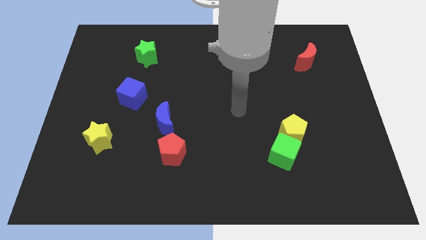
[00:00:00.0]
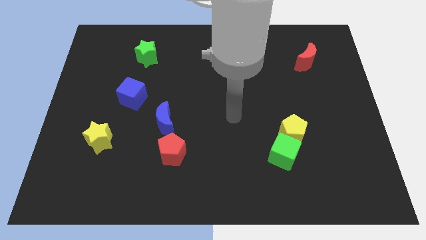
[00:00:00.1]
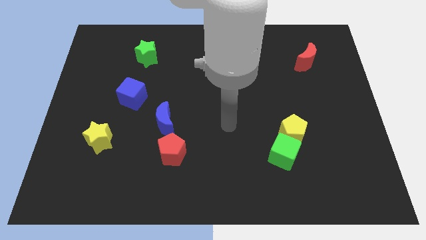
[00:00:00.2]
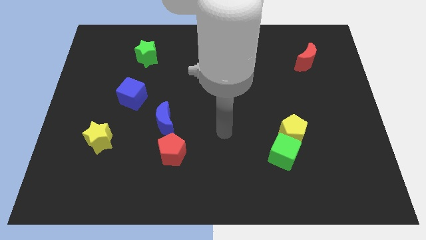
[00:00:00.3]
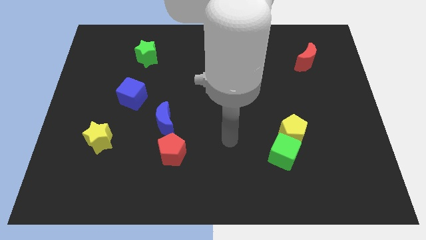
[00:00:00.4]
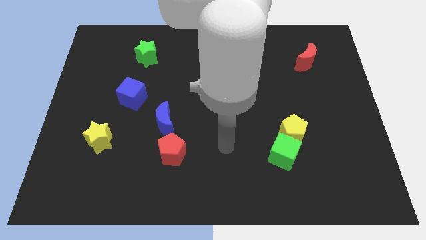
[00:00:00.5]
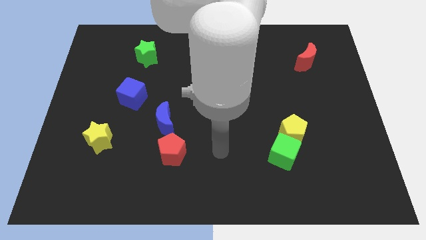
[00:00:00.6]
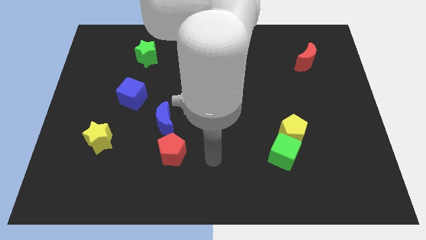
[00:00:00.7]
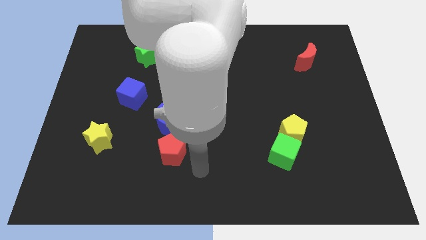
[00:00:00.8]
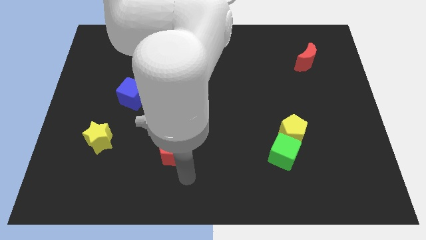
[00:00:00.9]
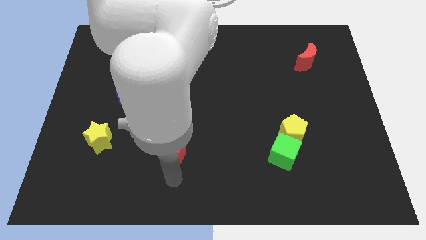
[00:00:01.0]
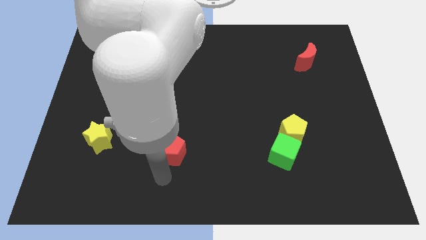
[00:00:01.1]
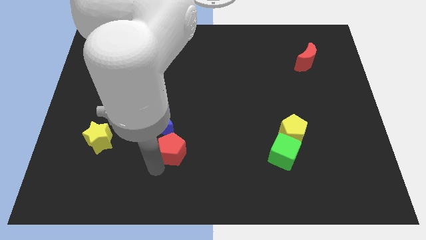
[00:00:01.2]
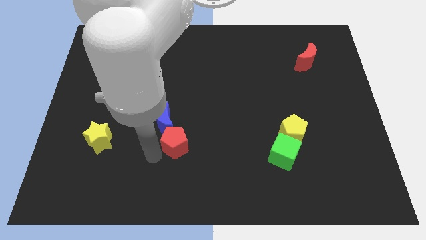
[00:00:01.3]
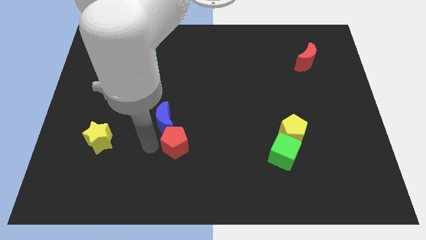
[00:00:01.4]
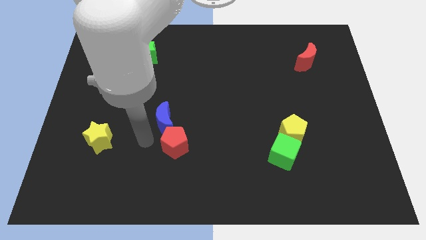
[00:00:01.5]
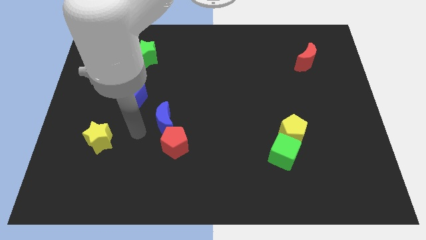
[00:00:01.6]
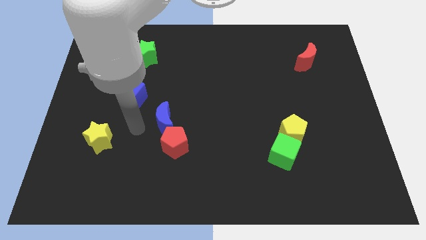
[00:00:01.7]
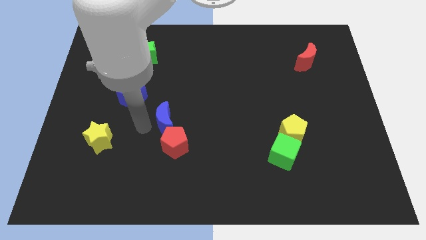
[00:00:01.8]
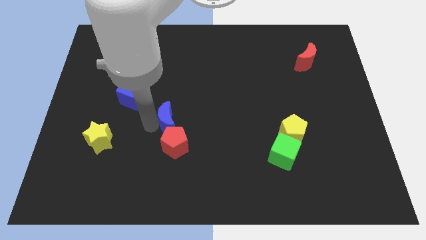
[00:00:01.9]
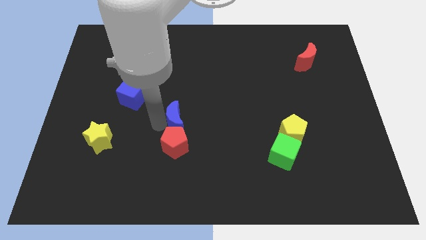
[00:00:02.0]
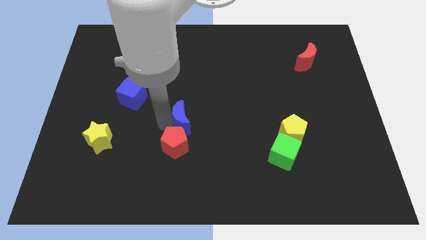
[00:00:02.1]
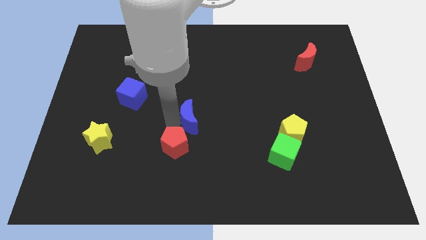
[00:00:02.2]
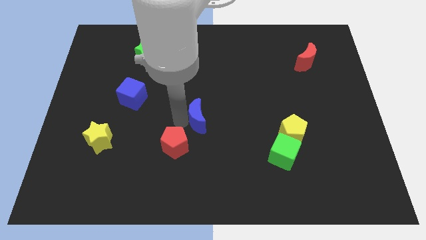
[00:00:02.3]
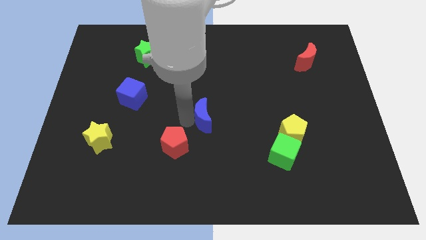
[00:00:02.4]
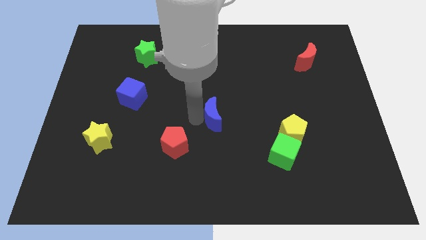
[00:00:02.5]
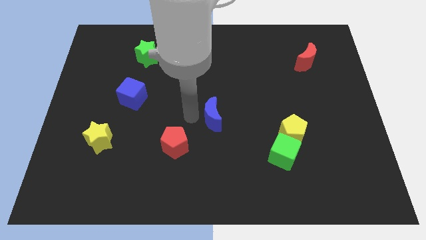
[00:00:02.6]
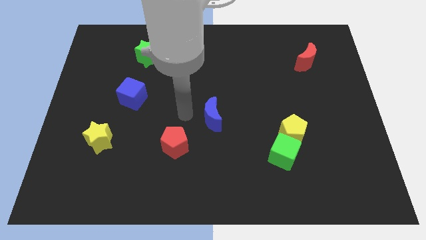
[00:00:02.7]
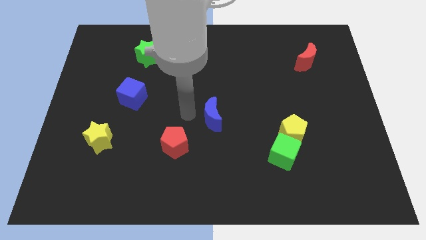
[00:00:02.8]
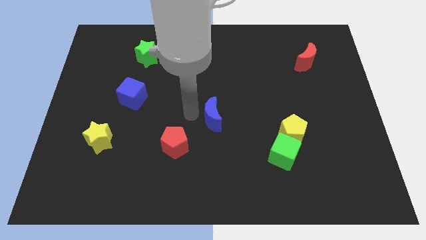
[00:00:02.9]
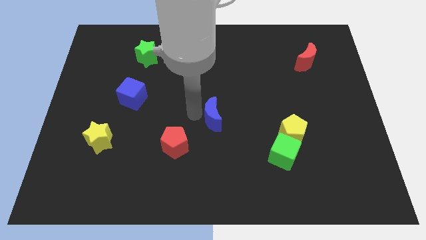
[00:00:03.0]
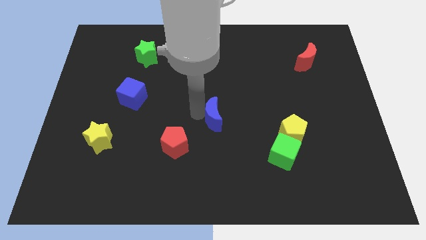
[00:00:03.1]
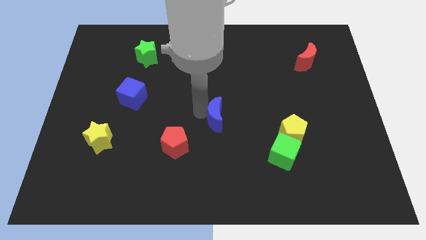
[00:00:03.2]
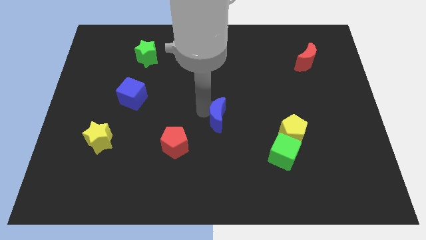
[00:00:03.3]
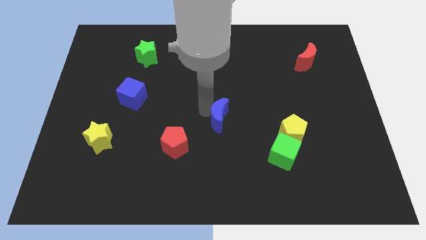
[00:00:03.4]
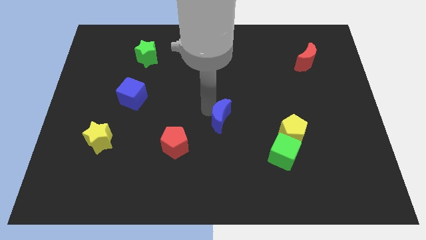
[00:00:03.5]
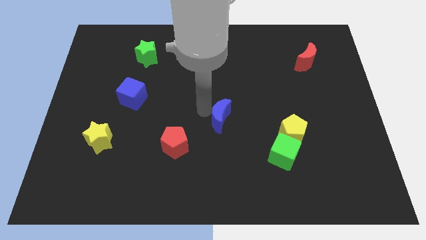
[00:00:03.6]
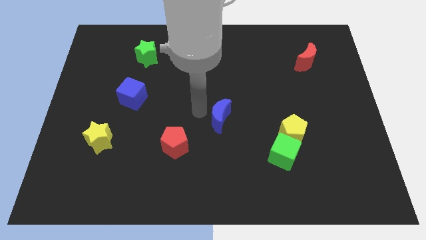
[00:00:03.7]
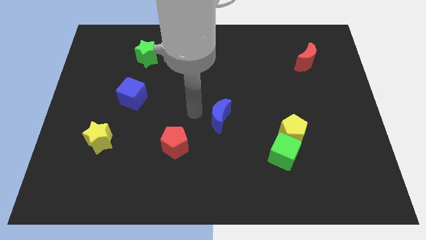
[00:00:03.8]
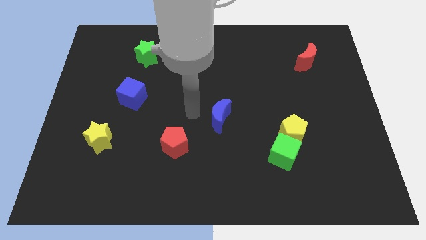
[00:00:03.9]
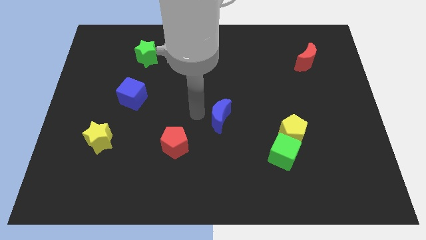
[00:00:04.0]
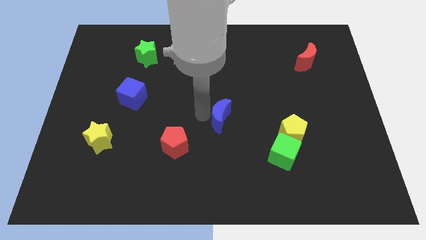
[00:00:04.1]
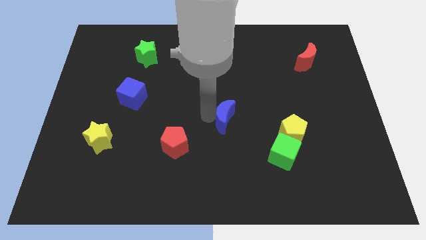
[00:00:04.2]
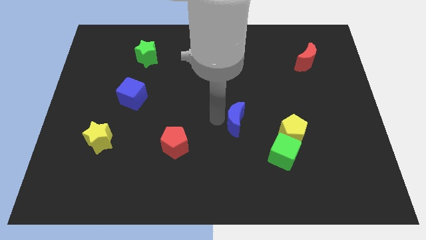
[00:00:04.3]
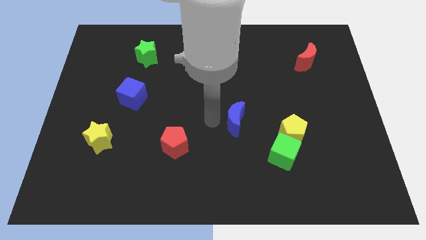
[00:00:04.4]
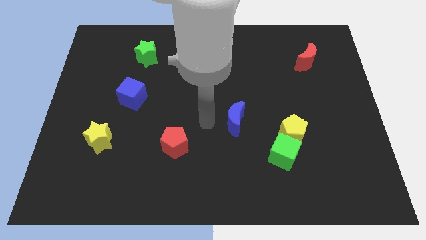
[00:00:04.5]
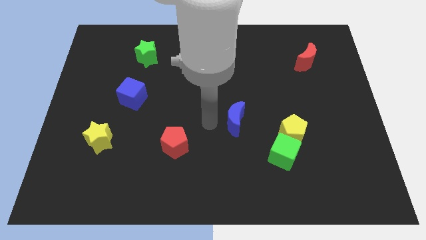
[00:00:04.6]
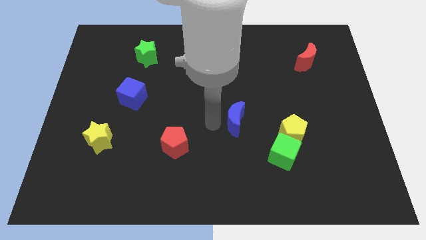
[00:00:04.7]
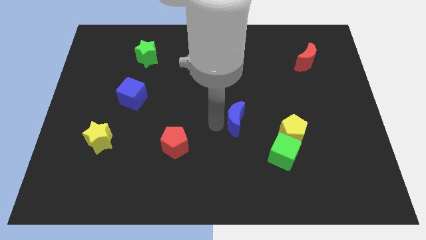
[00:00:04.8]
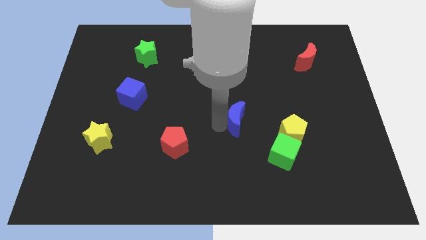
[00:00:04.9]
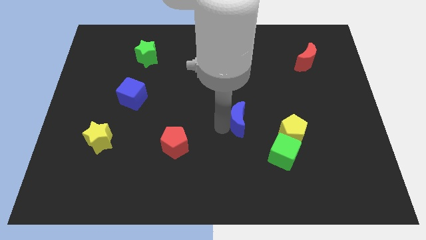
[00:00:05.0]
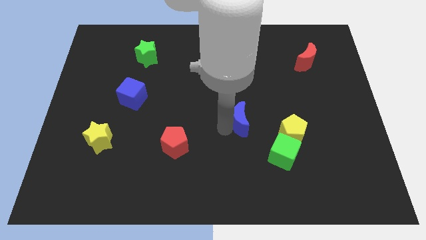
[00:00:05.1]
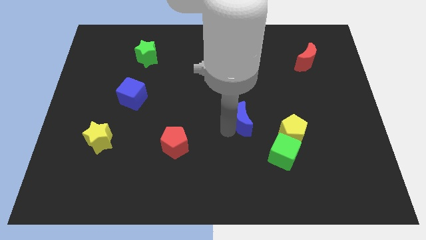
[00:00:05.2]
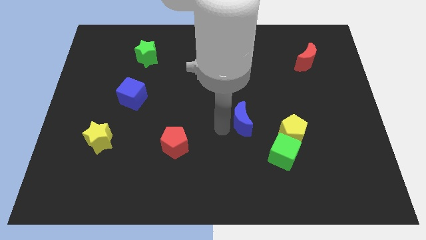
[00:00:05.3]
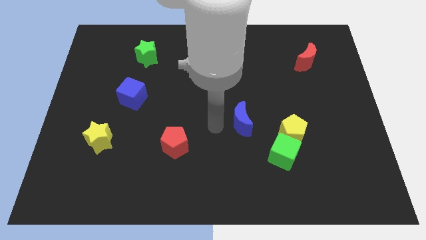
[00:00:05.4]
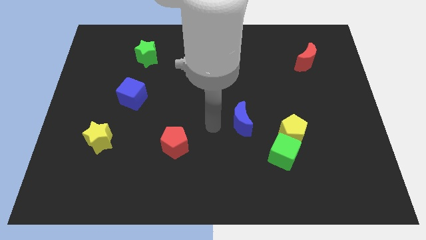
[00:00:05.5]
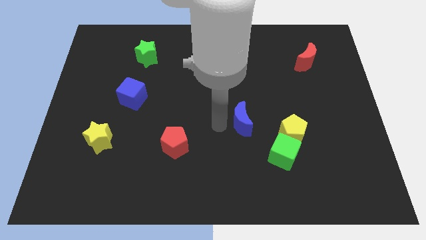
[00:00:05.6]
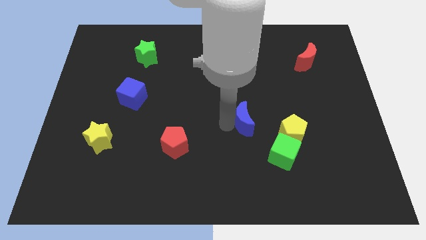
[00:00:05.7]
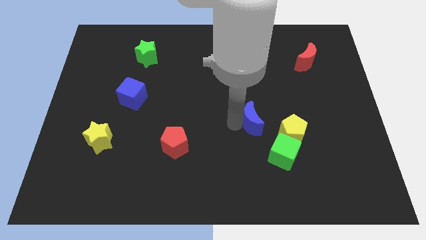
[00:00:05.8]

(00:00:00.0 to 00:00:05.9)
push the blue moon to the right

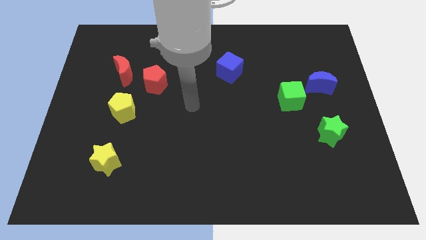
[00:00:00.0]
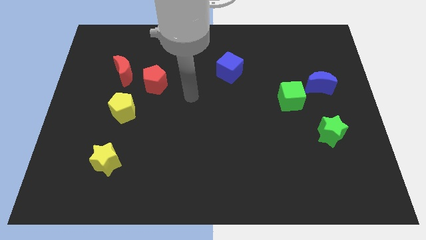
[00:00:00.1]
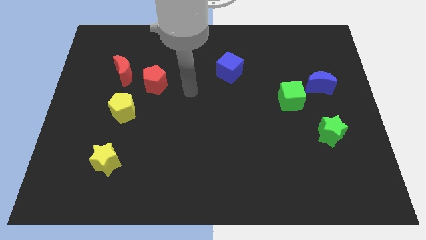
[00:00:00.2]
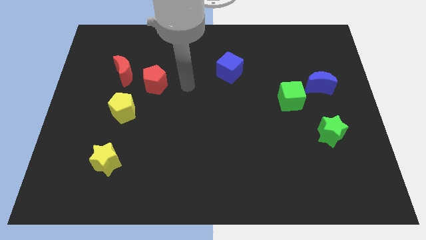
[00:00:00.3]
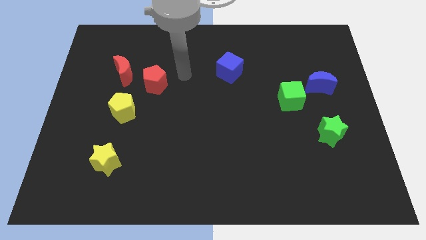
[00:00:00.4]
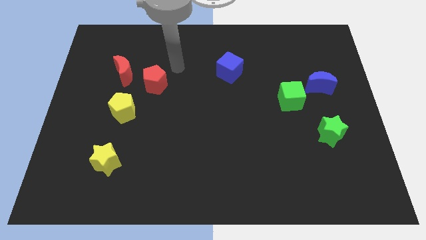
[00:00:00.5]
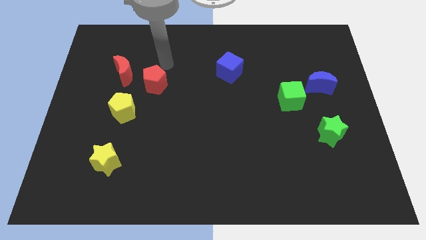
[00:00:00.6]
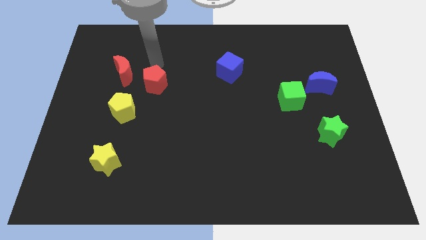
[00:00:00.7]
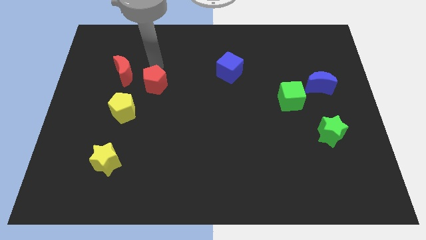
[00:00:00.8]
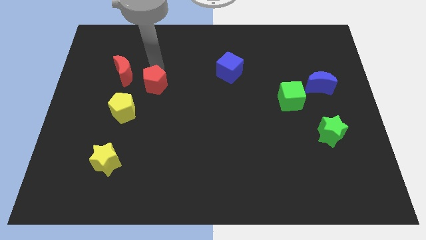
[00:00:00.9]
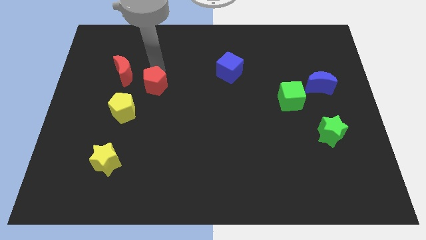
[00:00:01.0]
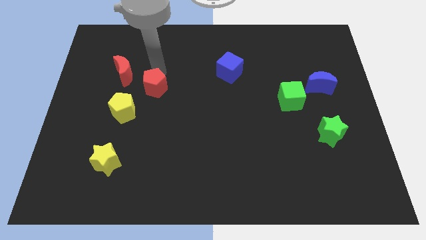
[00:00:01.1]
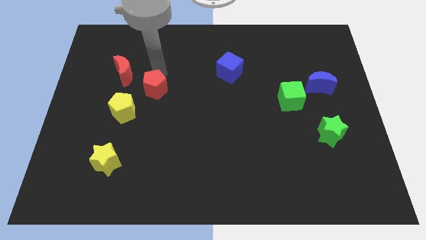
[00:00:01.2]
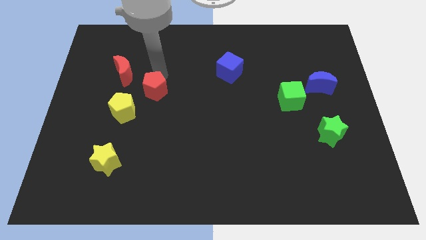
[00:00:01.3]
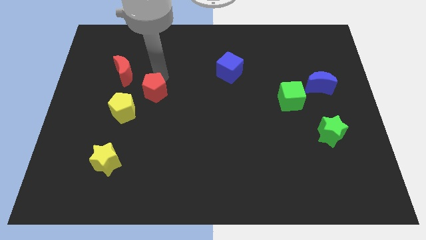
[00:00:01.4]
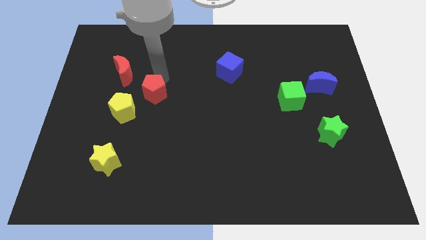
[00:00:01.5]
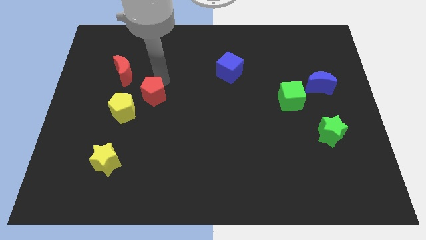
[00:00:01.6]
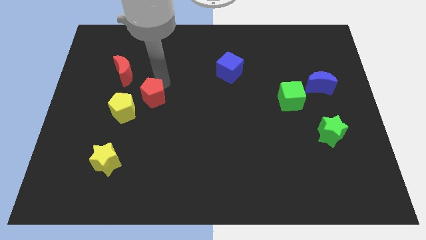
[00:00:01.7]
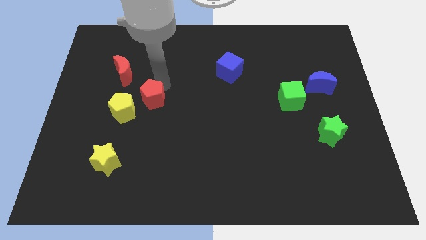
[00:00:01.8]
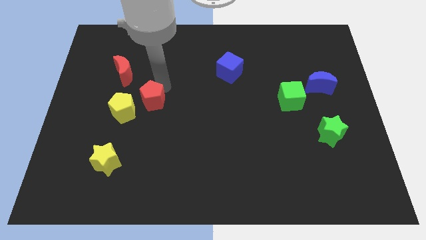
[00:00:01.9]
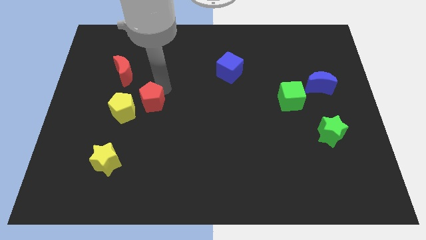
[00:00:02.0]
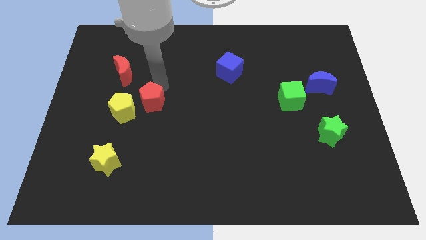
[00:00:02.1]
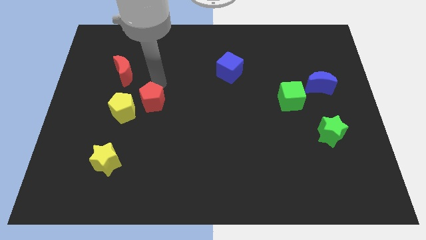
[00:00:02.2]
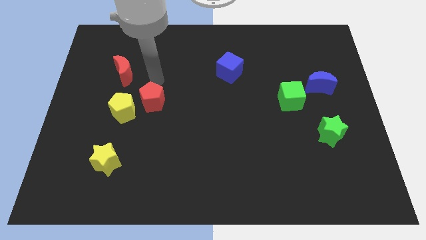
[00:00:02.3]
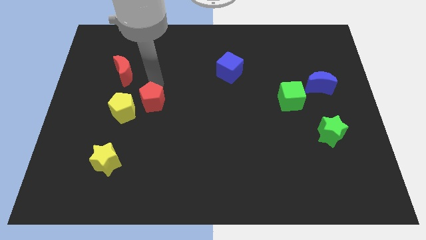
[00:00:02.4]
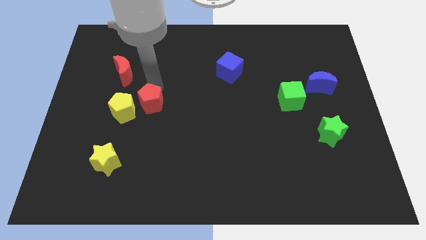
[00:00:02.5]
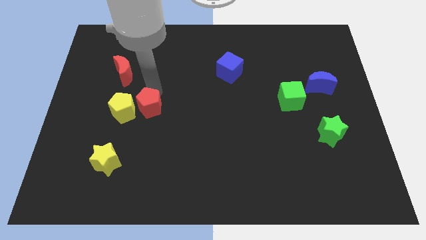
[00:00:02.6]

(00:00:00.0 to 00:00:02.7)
slightly move the red pentagon downwards
